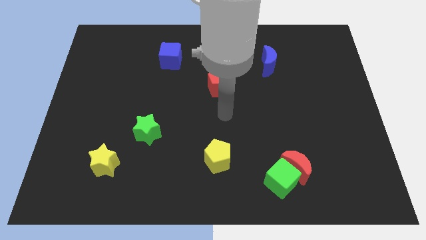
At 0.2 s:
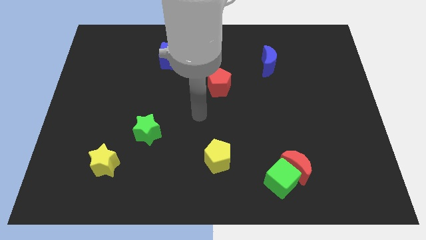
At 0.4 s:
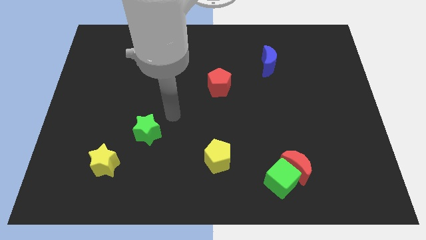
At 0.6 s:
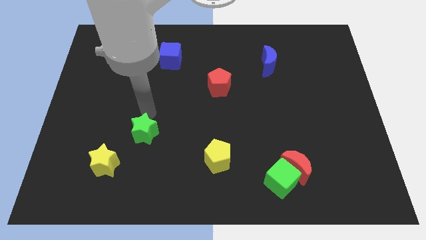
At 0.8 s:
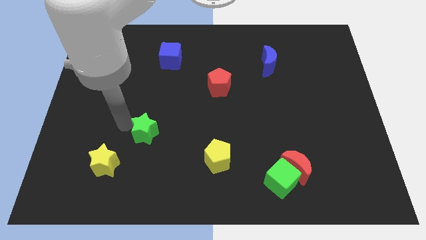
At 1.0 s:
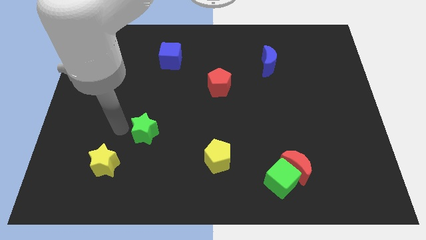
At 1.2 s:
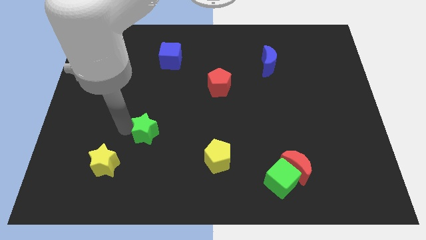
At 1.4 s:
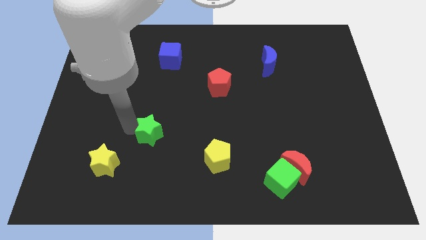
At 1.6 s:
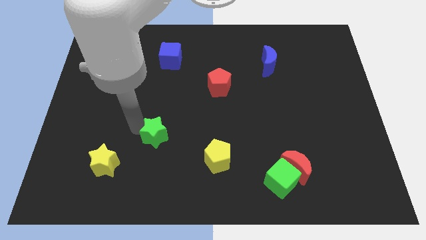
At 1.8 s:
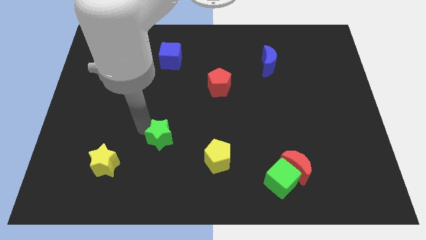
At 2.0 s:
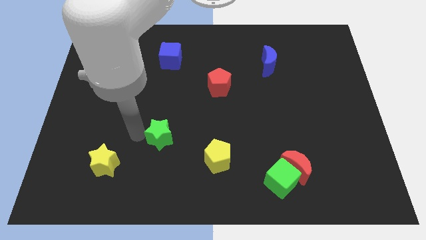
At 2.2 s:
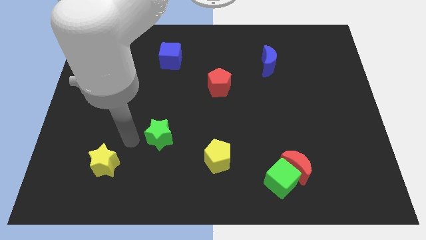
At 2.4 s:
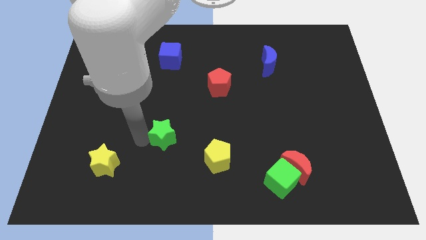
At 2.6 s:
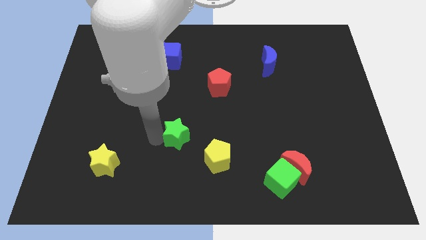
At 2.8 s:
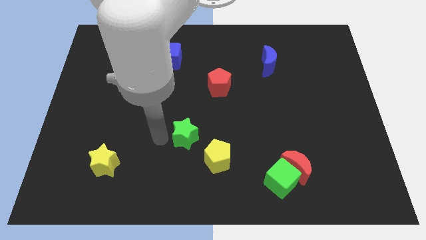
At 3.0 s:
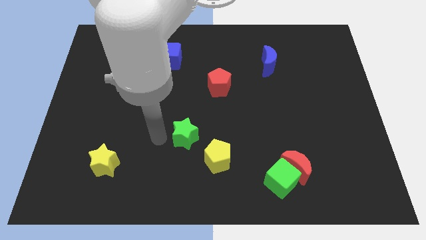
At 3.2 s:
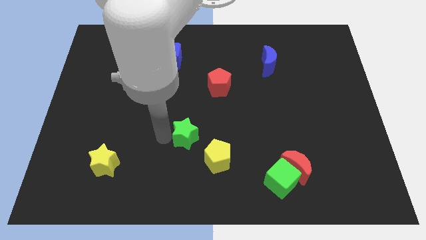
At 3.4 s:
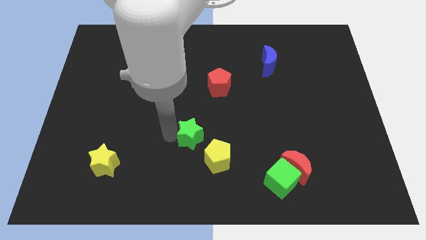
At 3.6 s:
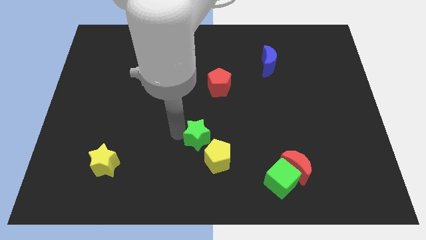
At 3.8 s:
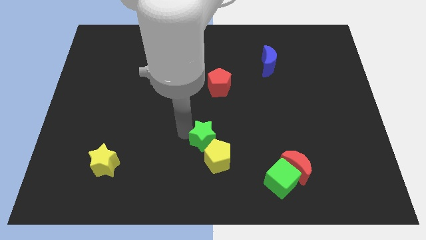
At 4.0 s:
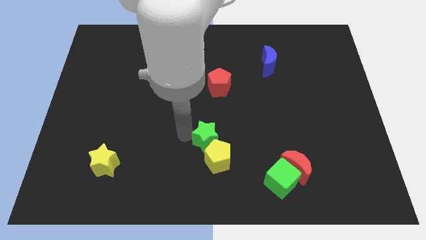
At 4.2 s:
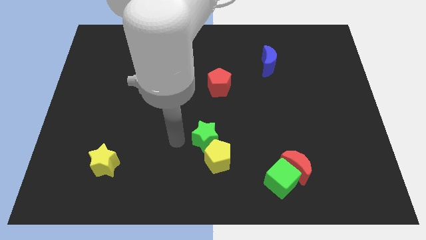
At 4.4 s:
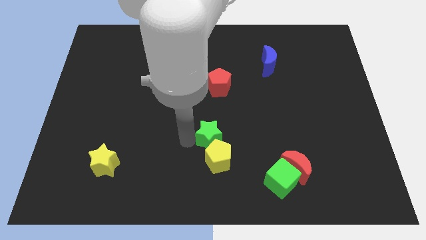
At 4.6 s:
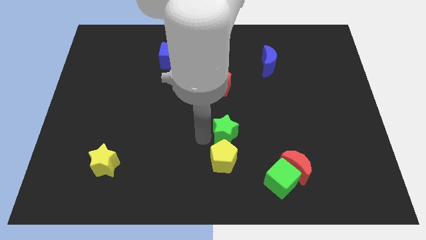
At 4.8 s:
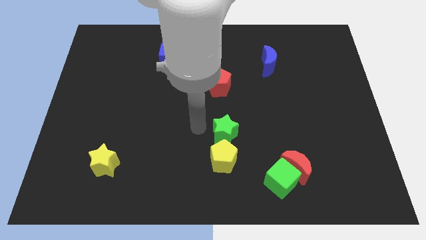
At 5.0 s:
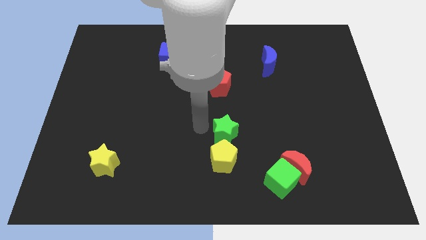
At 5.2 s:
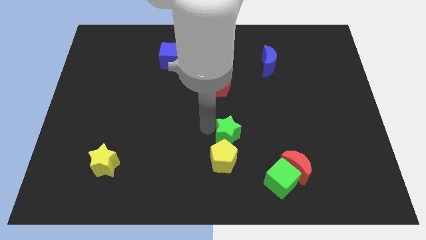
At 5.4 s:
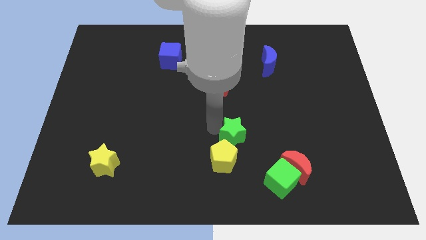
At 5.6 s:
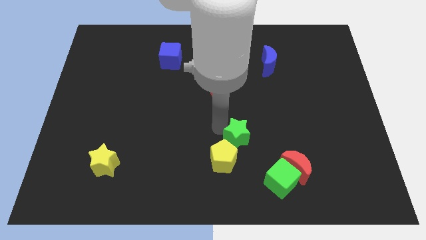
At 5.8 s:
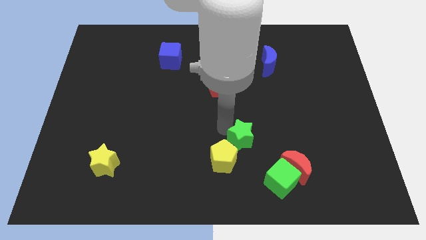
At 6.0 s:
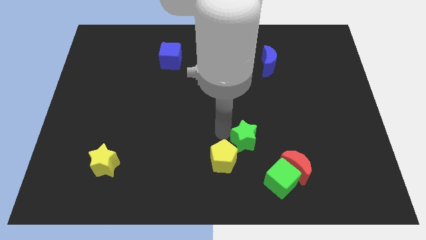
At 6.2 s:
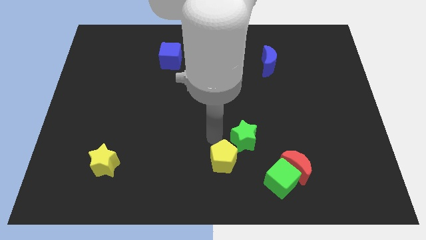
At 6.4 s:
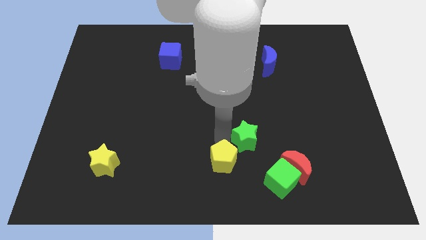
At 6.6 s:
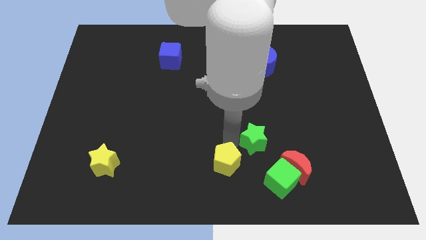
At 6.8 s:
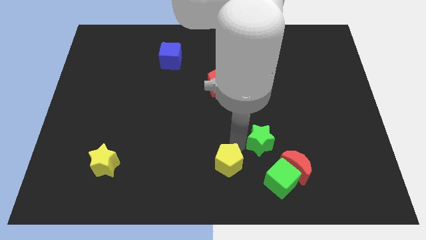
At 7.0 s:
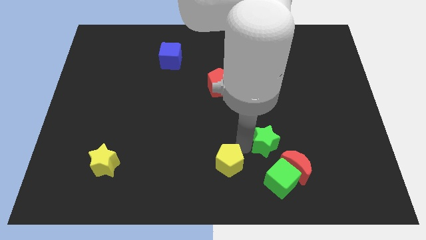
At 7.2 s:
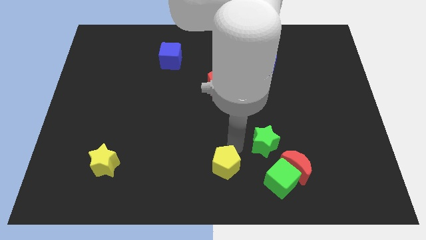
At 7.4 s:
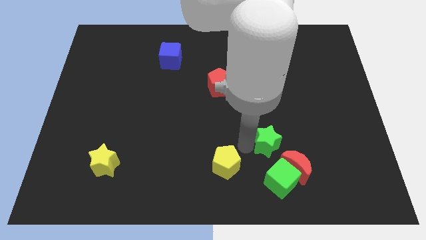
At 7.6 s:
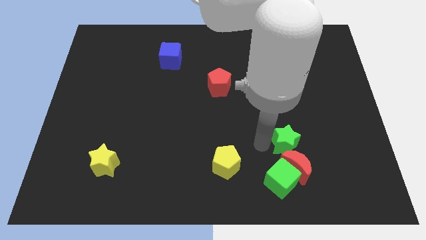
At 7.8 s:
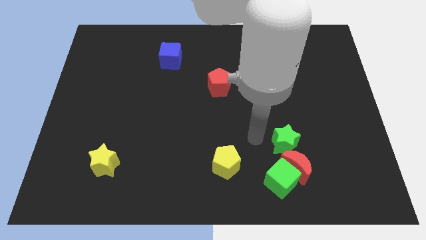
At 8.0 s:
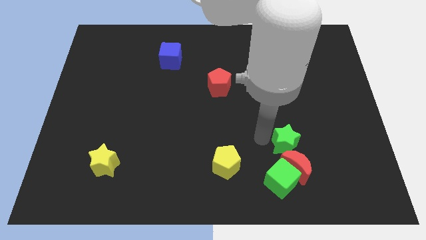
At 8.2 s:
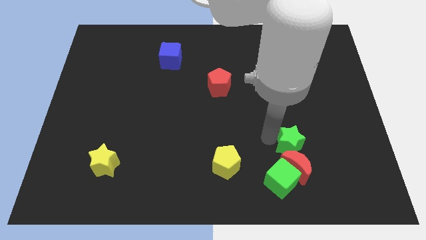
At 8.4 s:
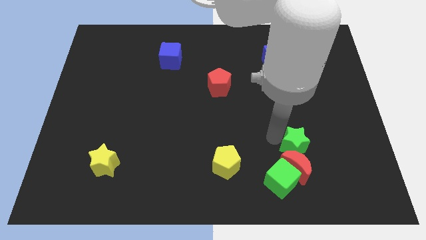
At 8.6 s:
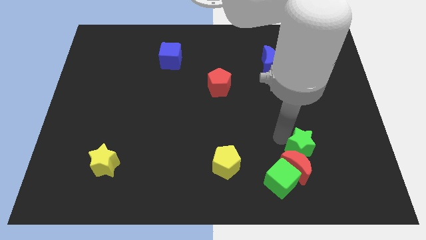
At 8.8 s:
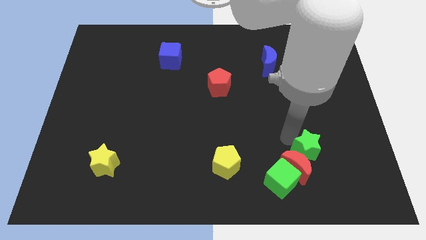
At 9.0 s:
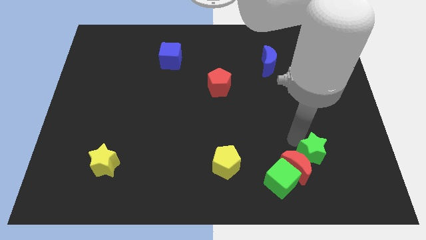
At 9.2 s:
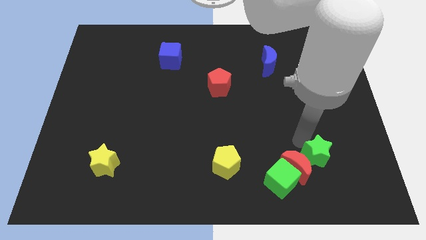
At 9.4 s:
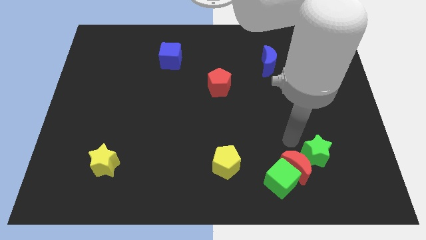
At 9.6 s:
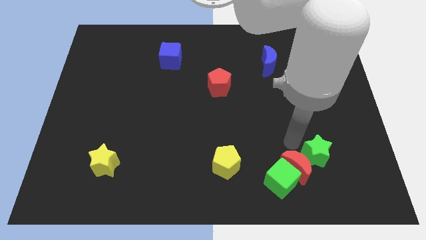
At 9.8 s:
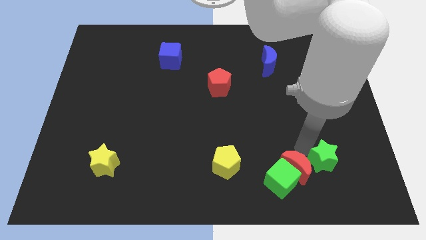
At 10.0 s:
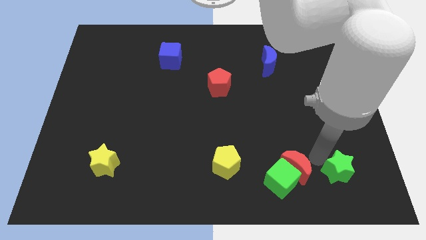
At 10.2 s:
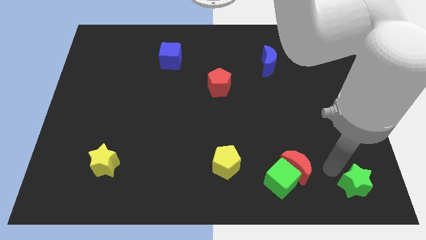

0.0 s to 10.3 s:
put the green star to the bottom right corner

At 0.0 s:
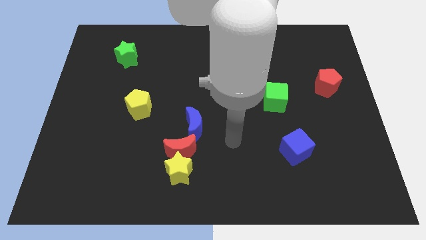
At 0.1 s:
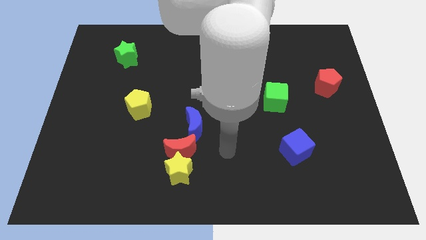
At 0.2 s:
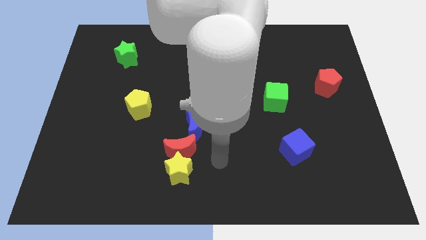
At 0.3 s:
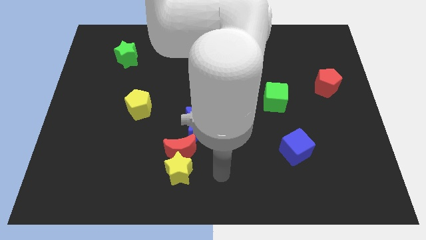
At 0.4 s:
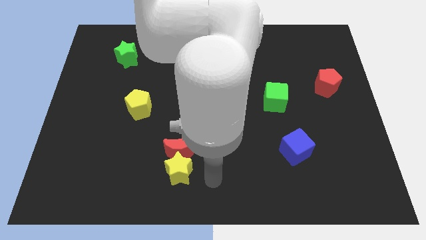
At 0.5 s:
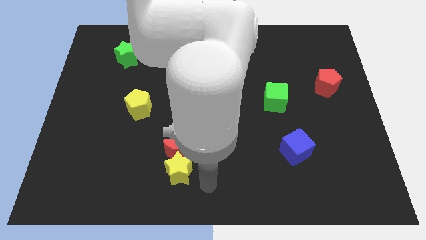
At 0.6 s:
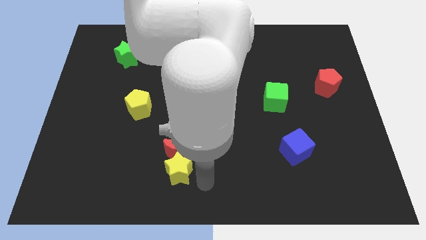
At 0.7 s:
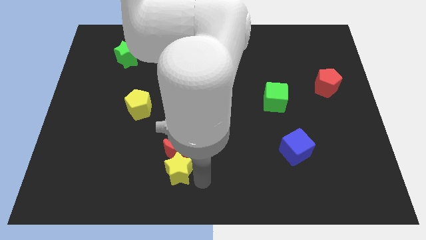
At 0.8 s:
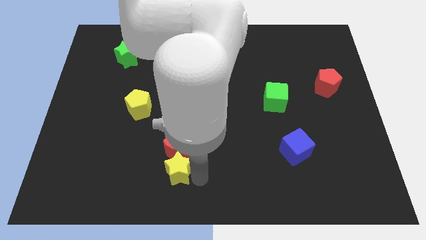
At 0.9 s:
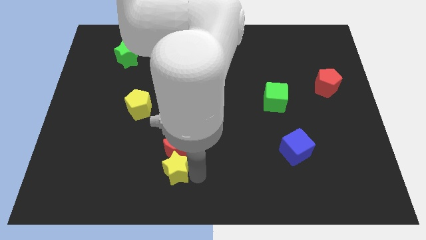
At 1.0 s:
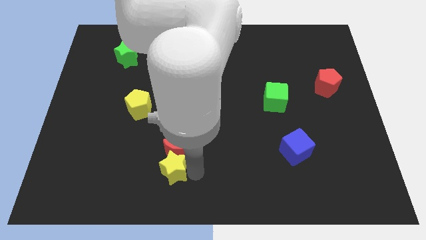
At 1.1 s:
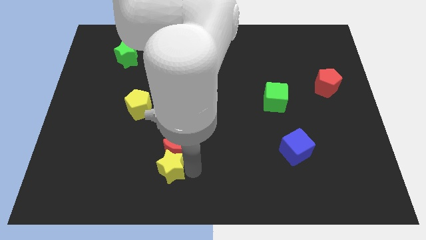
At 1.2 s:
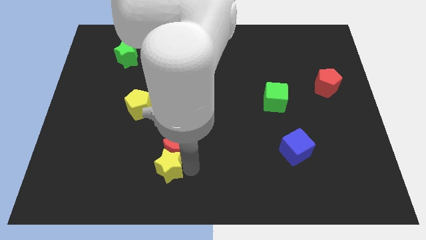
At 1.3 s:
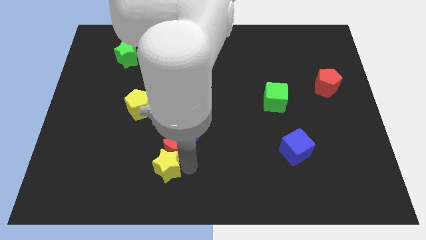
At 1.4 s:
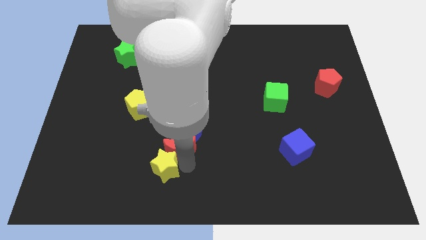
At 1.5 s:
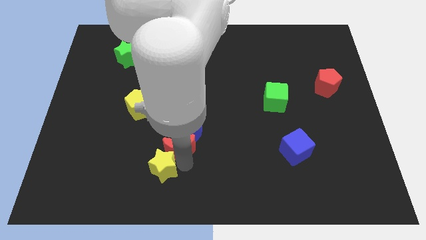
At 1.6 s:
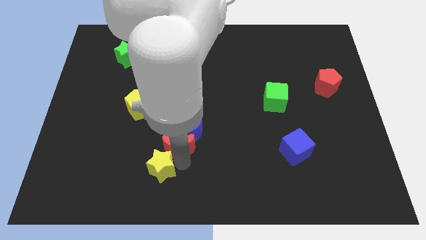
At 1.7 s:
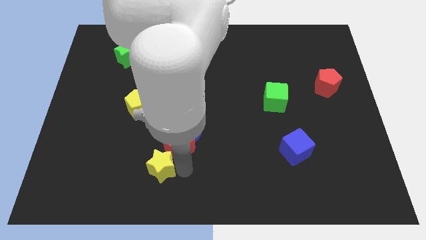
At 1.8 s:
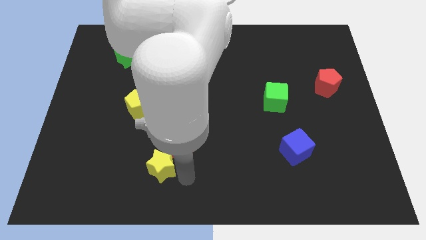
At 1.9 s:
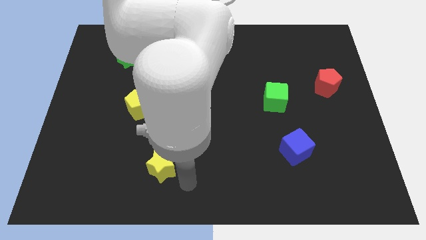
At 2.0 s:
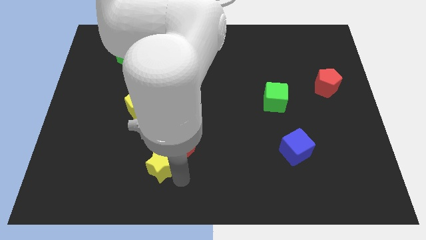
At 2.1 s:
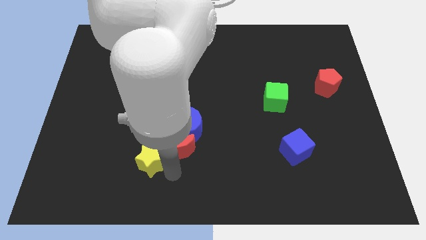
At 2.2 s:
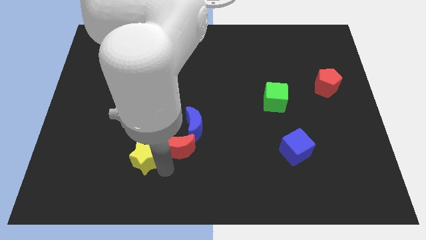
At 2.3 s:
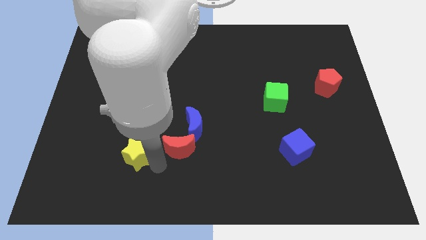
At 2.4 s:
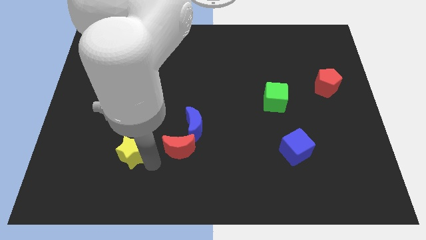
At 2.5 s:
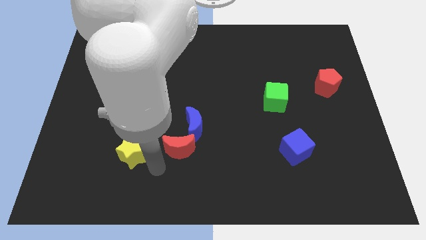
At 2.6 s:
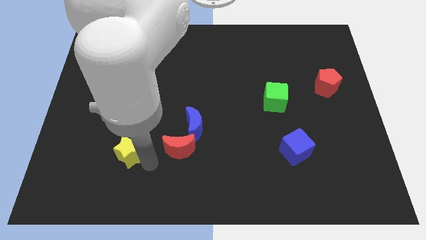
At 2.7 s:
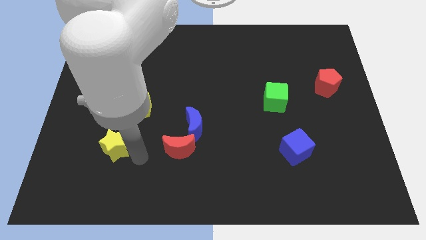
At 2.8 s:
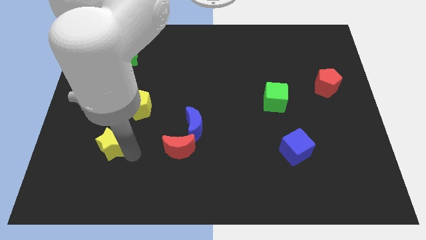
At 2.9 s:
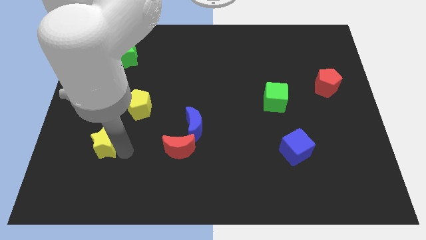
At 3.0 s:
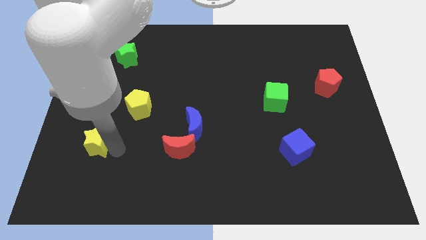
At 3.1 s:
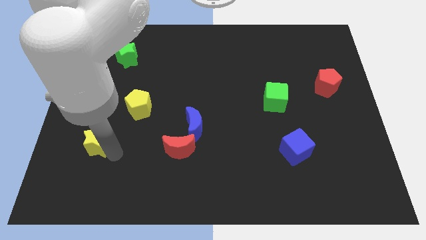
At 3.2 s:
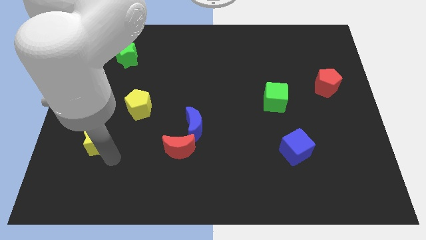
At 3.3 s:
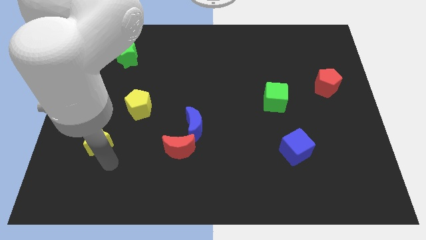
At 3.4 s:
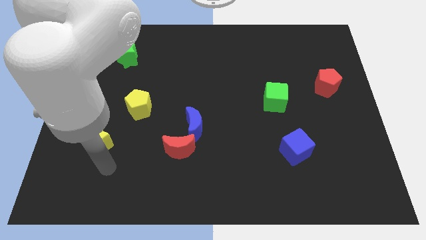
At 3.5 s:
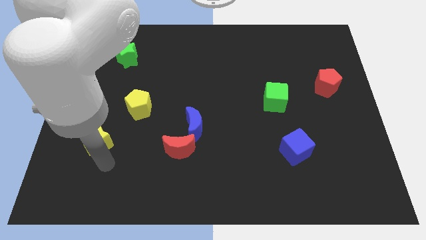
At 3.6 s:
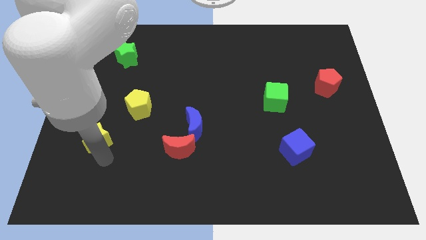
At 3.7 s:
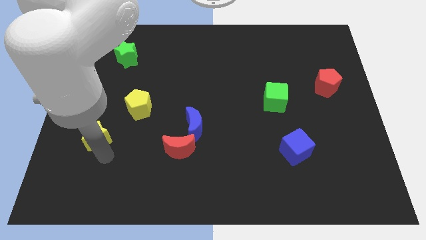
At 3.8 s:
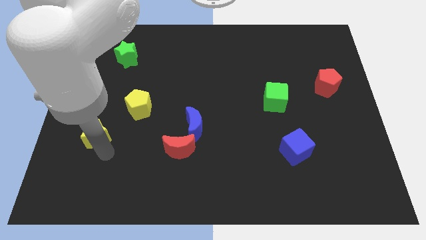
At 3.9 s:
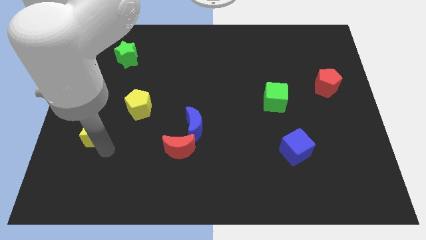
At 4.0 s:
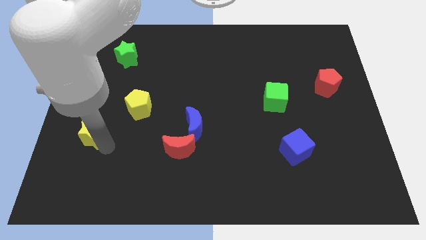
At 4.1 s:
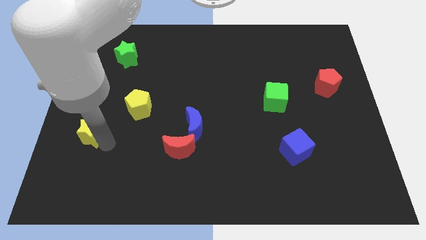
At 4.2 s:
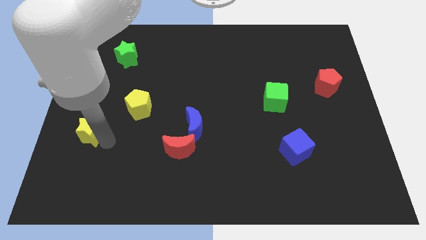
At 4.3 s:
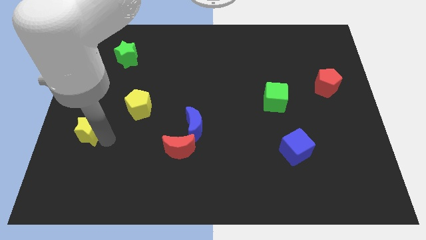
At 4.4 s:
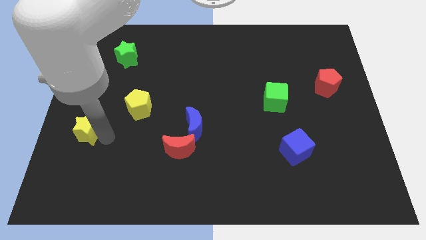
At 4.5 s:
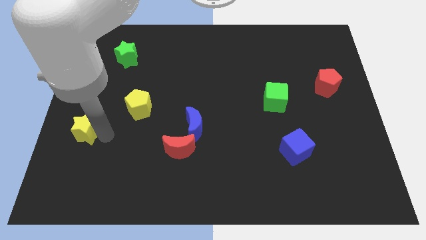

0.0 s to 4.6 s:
push the yellow star to the center left
